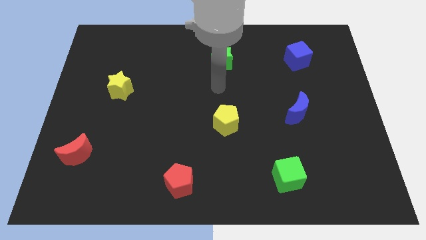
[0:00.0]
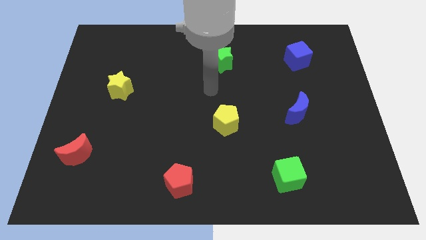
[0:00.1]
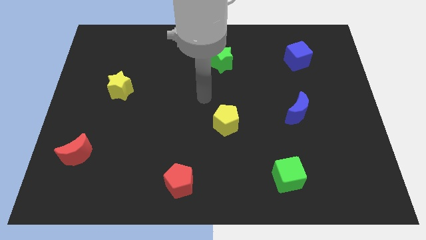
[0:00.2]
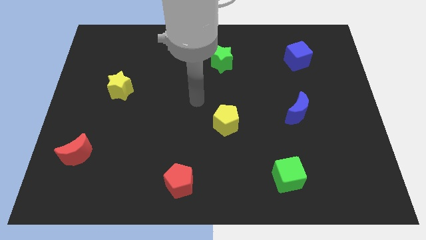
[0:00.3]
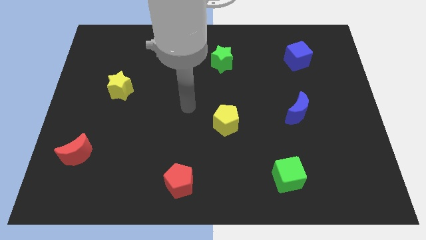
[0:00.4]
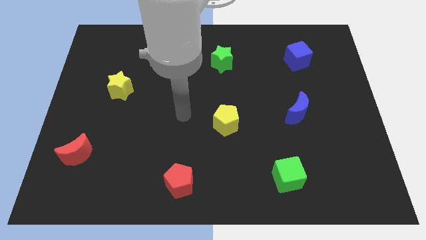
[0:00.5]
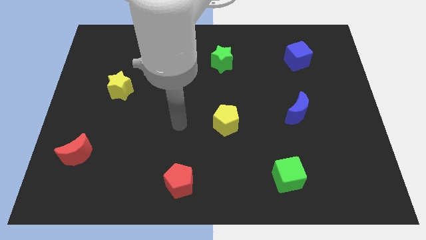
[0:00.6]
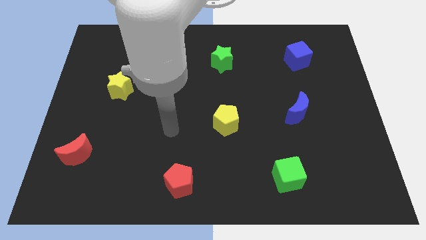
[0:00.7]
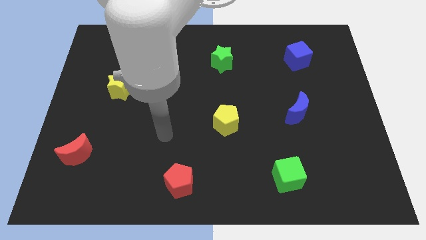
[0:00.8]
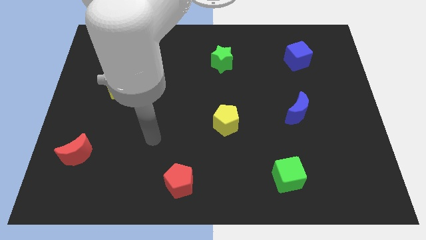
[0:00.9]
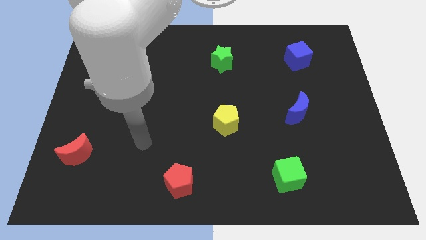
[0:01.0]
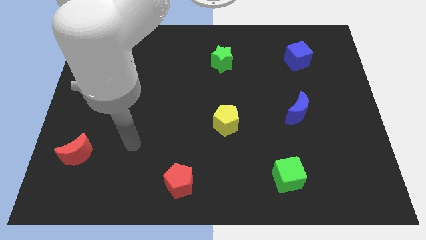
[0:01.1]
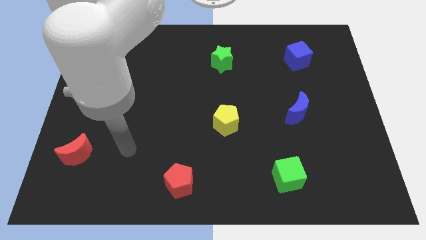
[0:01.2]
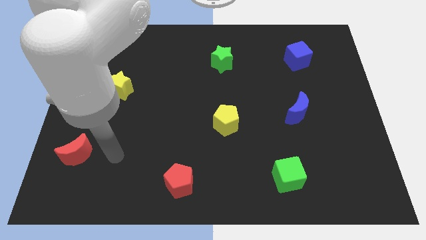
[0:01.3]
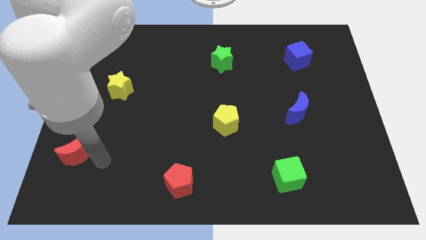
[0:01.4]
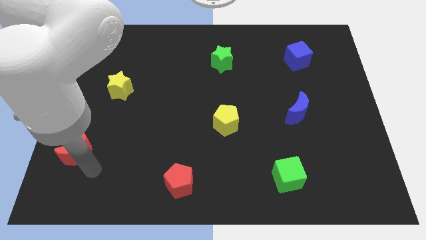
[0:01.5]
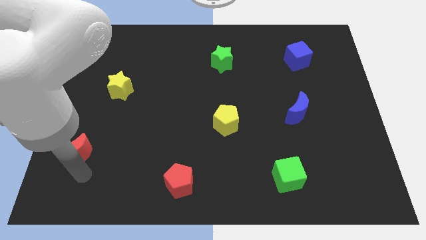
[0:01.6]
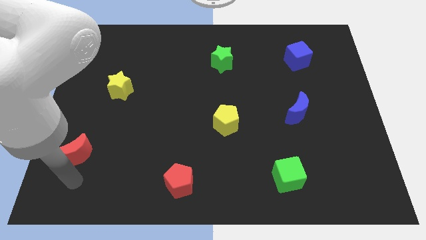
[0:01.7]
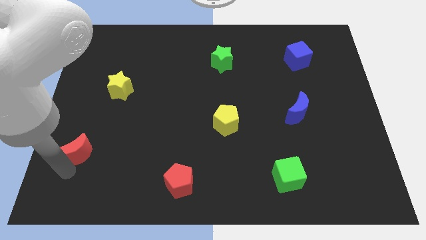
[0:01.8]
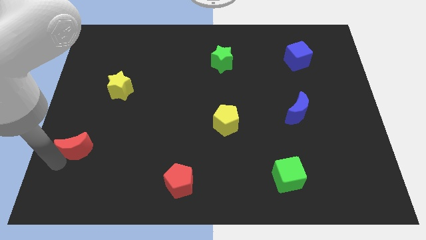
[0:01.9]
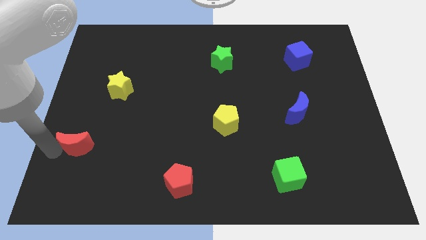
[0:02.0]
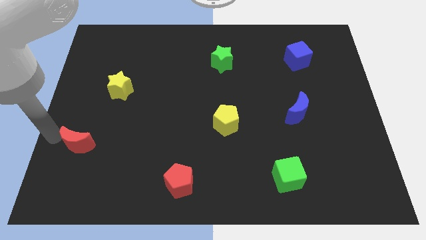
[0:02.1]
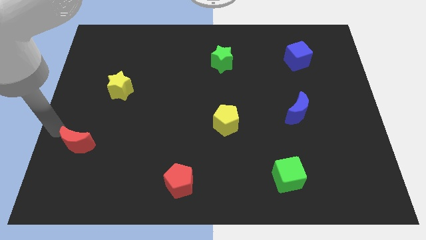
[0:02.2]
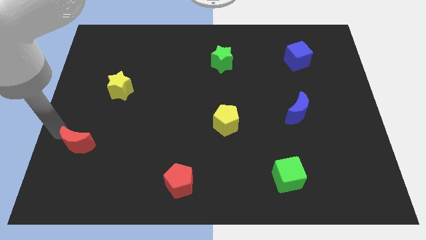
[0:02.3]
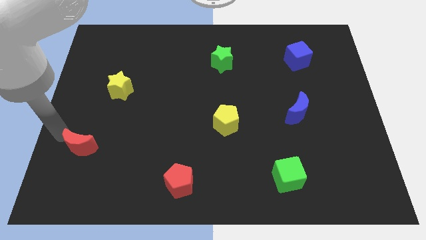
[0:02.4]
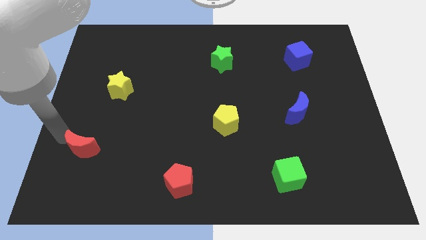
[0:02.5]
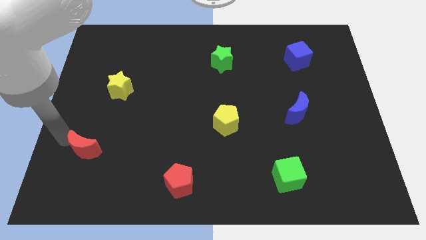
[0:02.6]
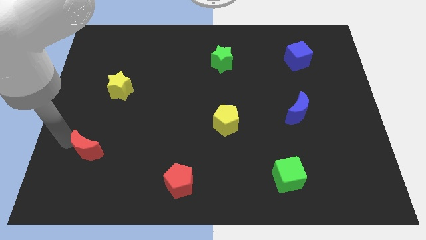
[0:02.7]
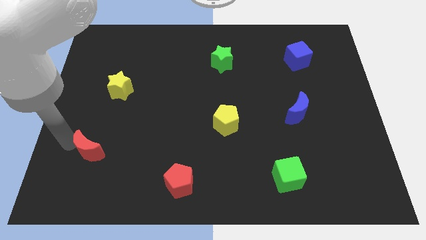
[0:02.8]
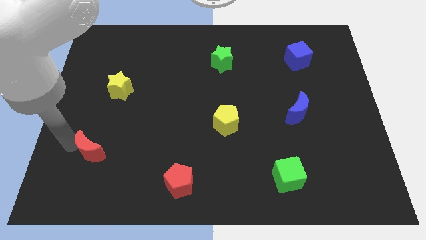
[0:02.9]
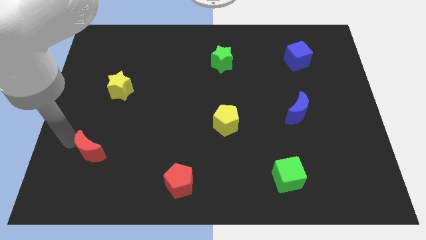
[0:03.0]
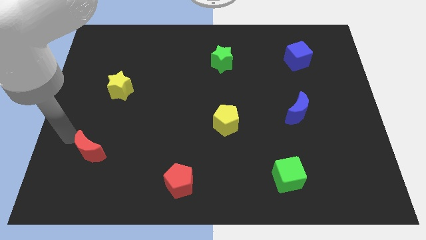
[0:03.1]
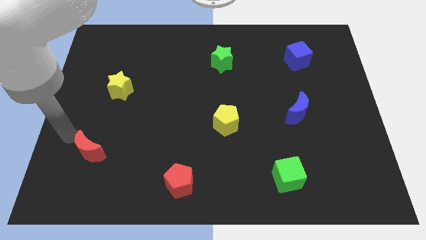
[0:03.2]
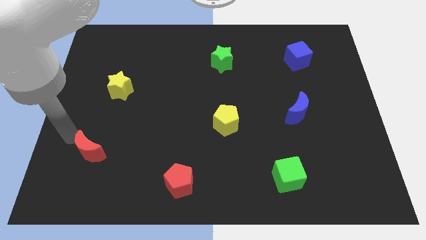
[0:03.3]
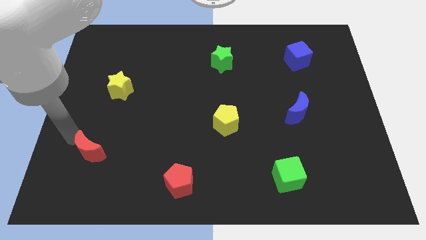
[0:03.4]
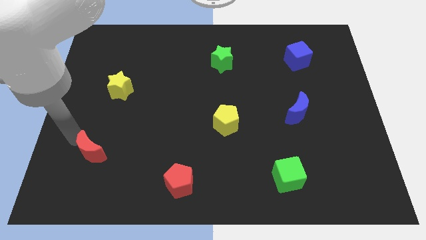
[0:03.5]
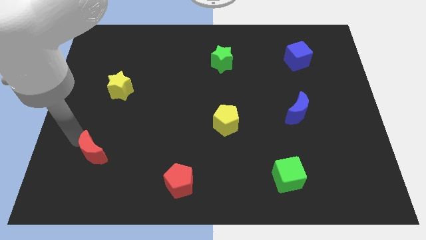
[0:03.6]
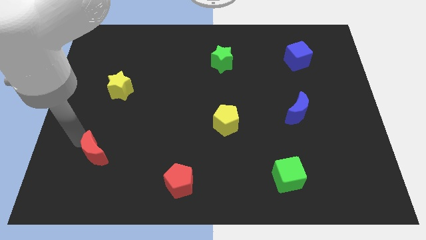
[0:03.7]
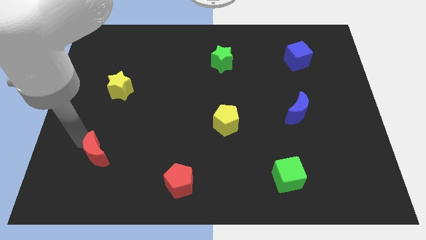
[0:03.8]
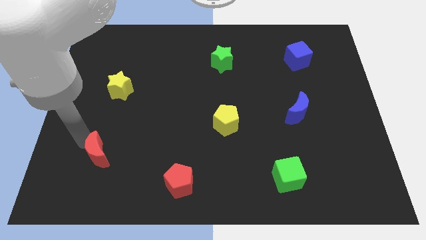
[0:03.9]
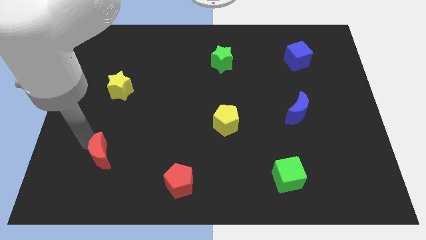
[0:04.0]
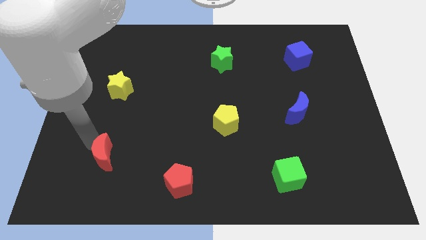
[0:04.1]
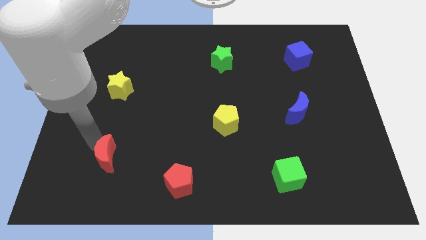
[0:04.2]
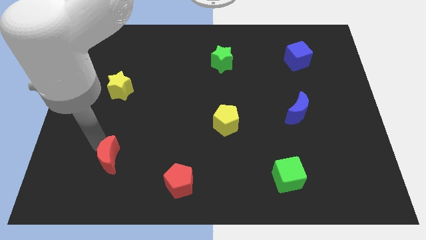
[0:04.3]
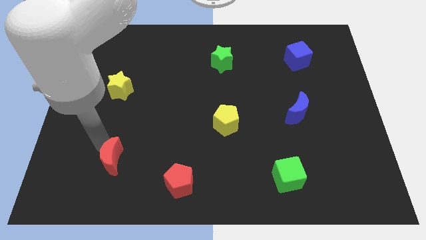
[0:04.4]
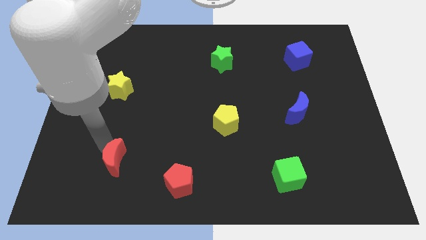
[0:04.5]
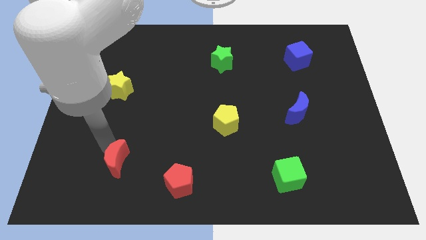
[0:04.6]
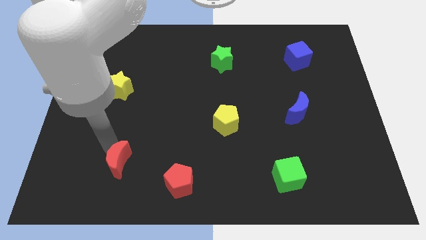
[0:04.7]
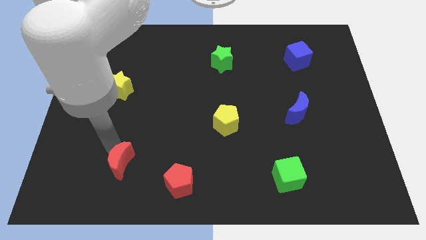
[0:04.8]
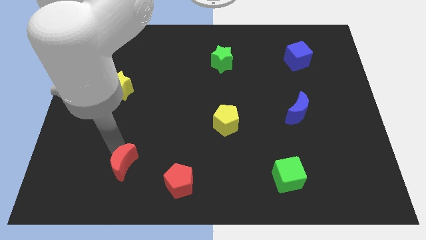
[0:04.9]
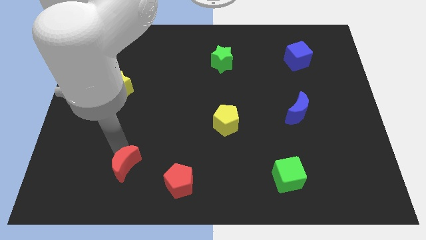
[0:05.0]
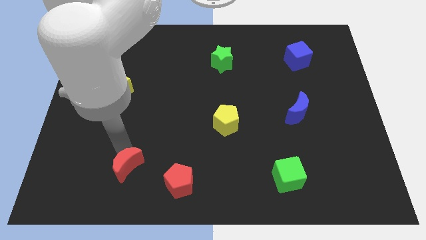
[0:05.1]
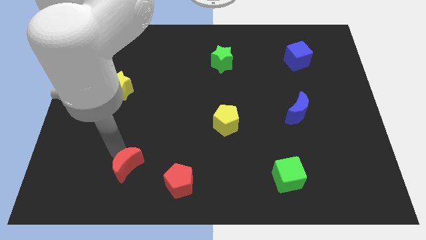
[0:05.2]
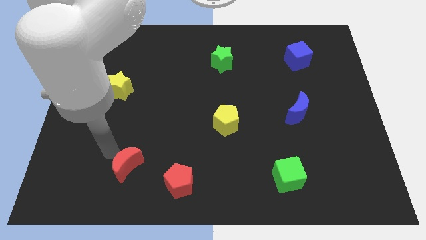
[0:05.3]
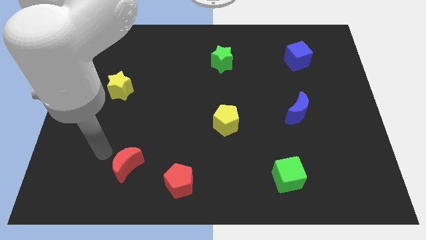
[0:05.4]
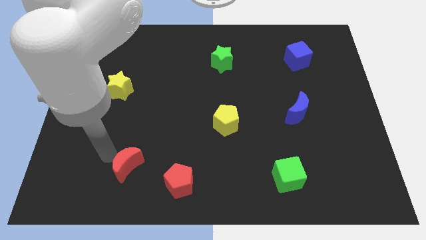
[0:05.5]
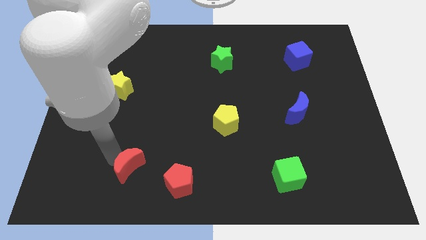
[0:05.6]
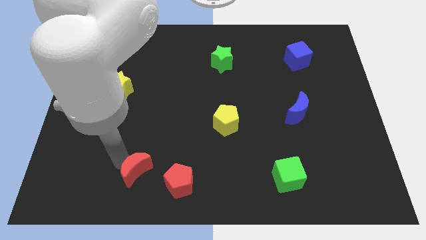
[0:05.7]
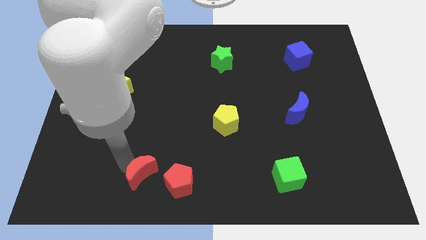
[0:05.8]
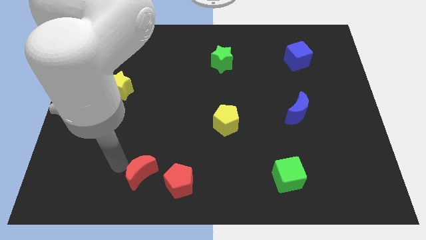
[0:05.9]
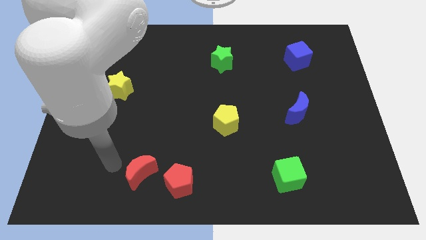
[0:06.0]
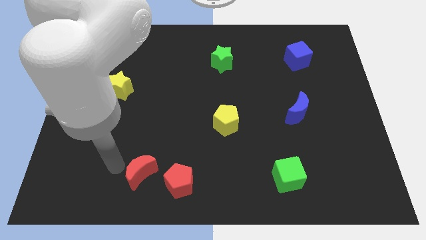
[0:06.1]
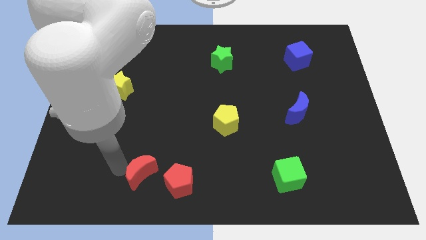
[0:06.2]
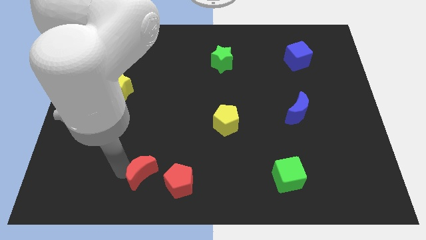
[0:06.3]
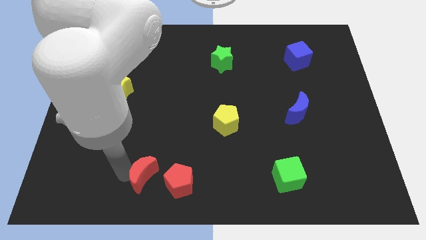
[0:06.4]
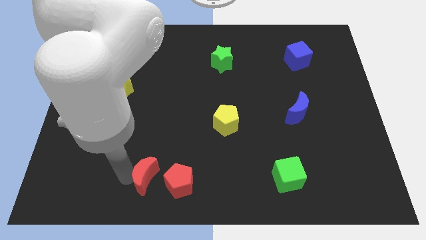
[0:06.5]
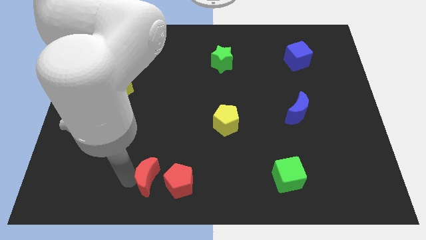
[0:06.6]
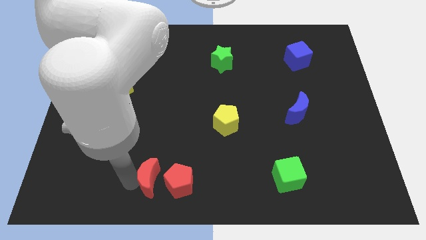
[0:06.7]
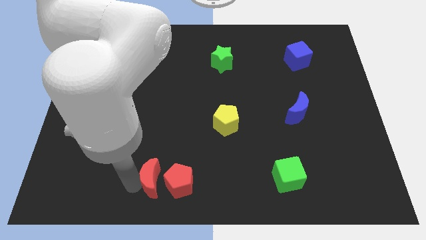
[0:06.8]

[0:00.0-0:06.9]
move the red moon to the red pentagon
